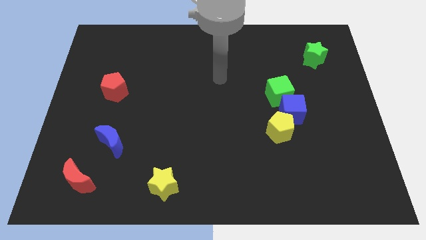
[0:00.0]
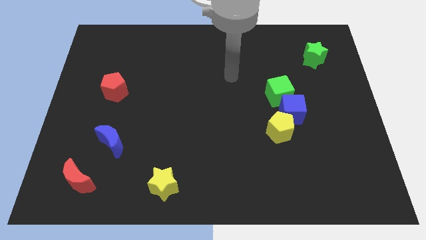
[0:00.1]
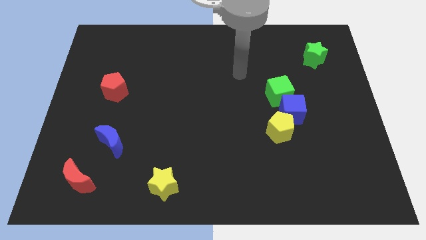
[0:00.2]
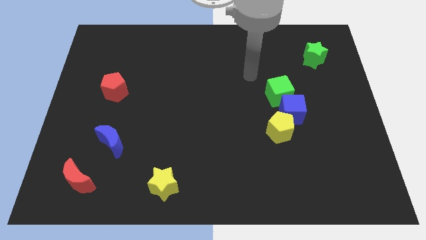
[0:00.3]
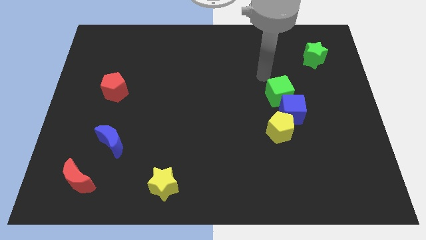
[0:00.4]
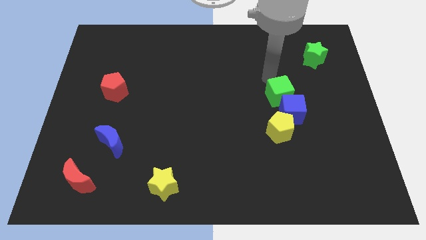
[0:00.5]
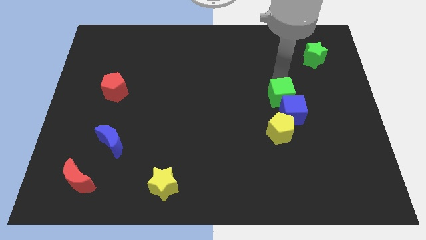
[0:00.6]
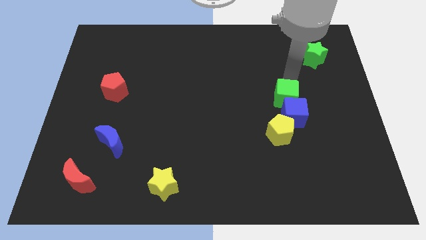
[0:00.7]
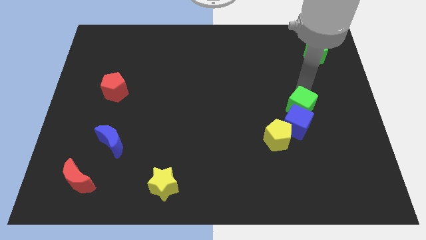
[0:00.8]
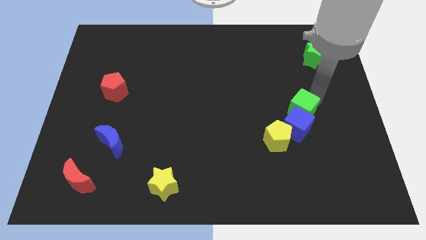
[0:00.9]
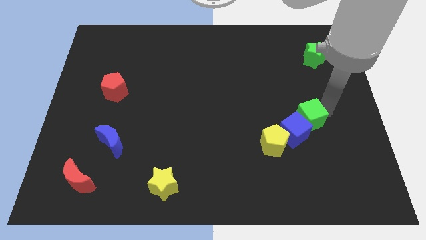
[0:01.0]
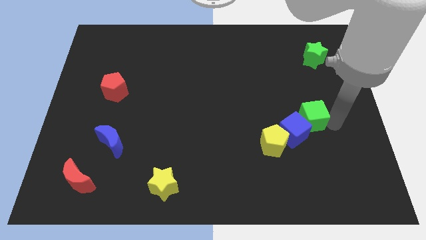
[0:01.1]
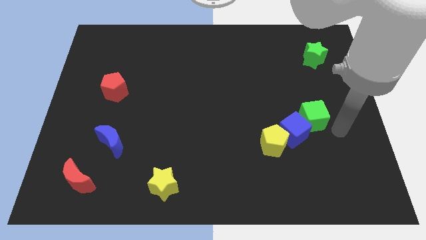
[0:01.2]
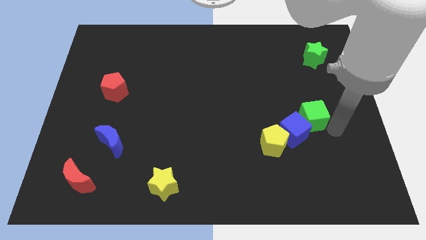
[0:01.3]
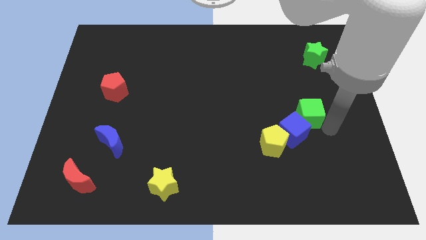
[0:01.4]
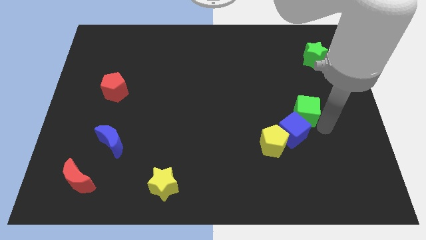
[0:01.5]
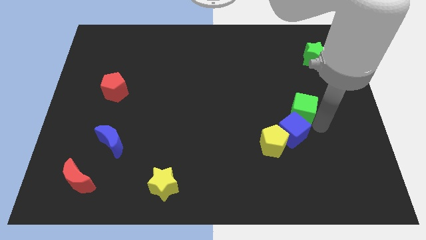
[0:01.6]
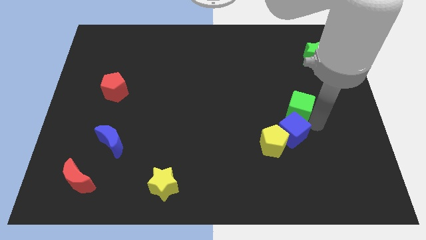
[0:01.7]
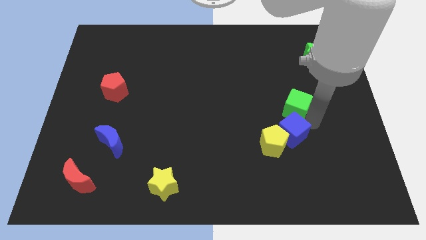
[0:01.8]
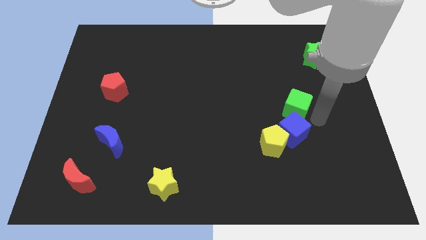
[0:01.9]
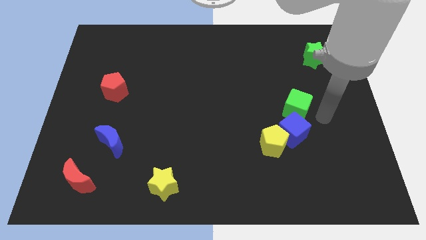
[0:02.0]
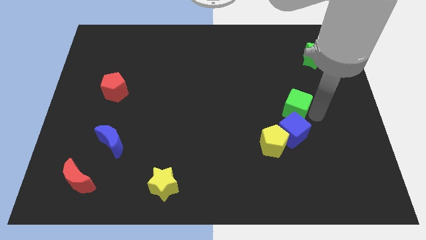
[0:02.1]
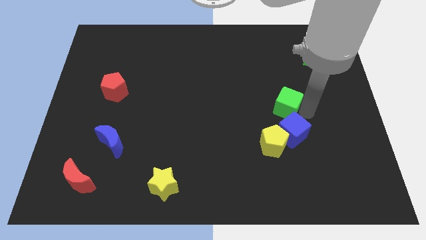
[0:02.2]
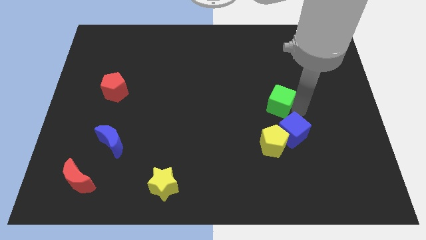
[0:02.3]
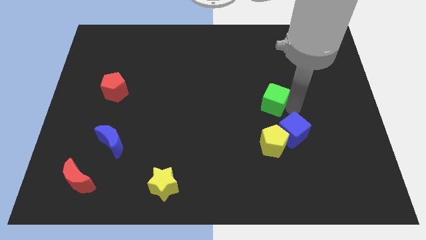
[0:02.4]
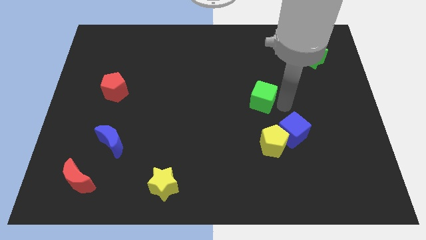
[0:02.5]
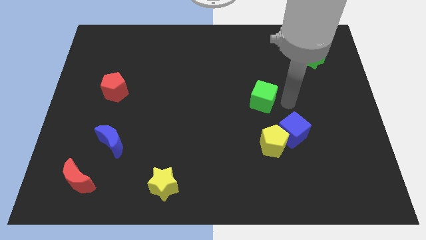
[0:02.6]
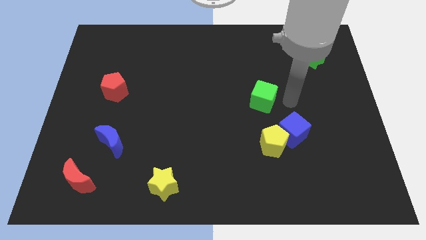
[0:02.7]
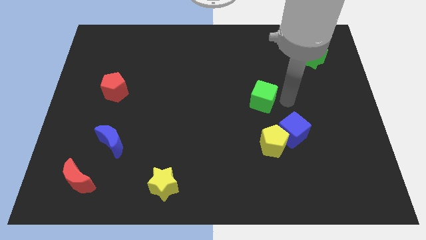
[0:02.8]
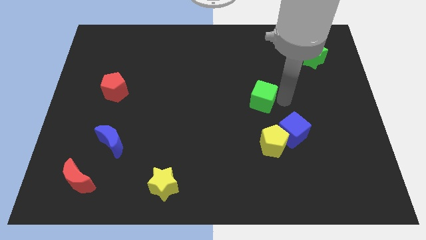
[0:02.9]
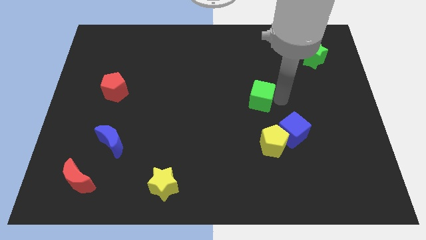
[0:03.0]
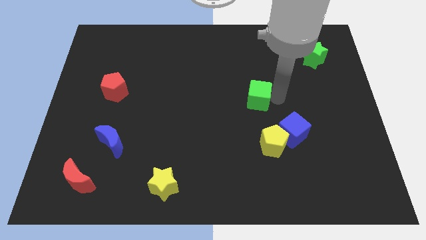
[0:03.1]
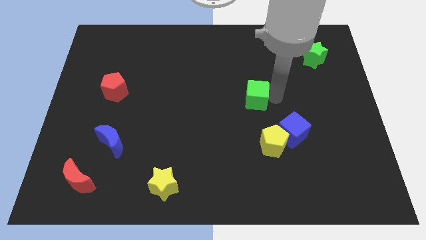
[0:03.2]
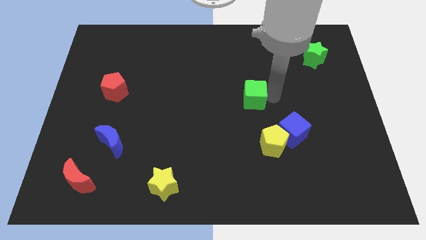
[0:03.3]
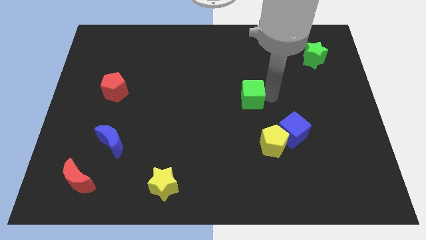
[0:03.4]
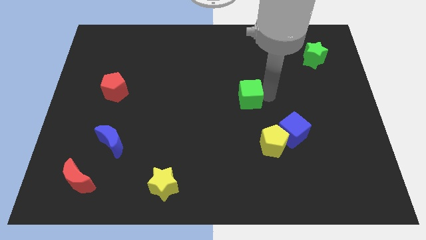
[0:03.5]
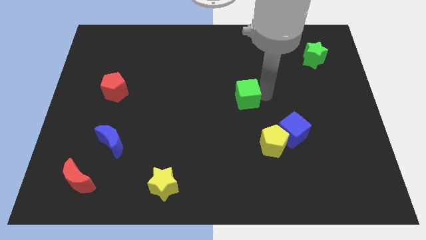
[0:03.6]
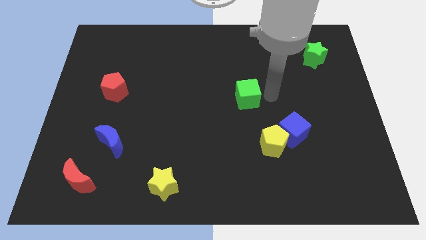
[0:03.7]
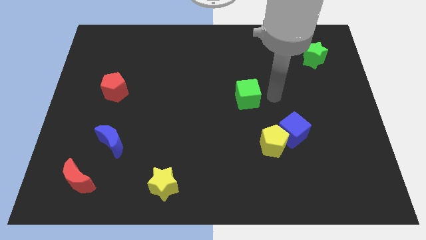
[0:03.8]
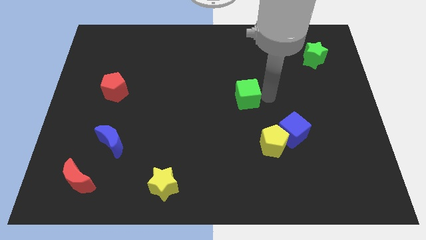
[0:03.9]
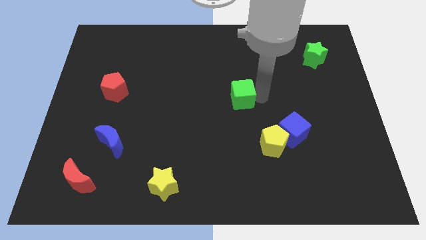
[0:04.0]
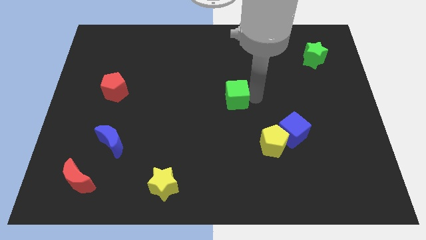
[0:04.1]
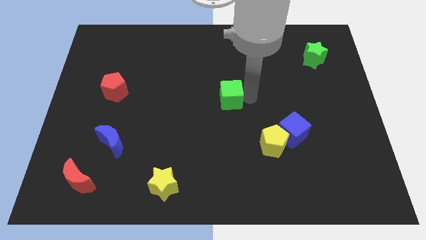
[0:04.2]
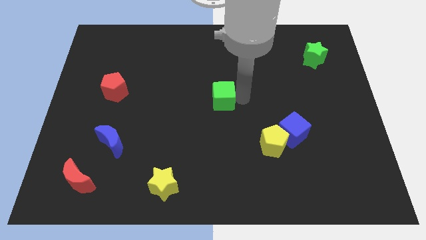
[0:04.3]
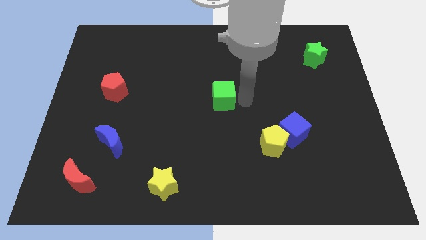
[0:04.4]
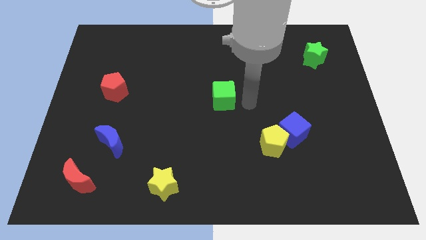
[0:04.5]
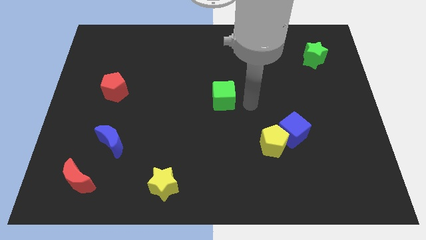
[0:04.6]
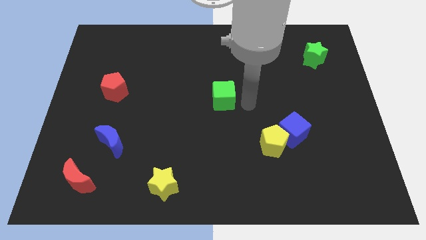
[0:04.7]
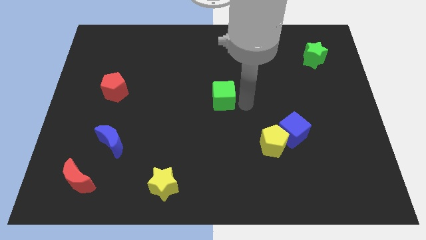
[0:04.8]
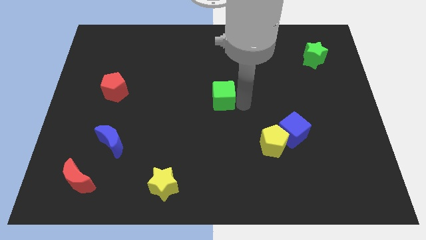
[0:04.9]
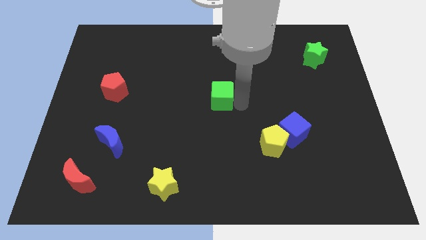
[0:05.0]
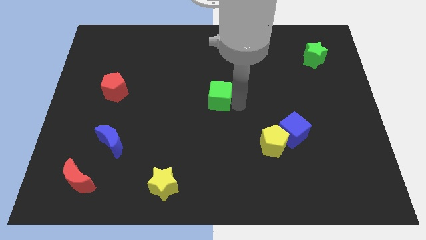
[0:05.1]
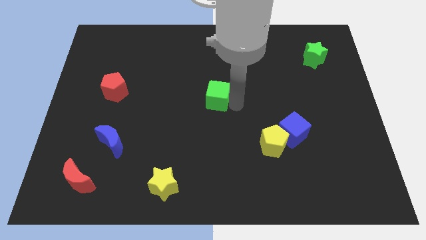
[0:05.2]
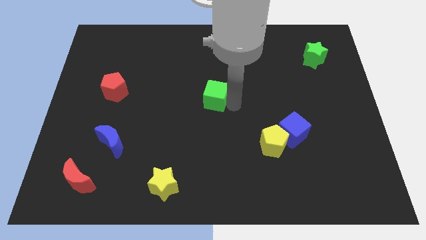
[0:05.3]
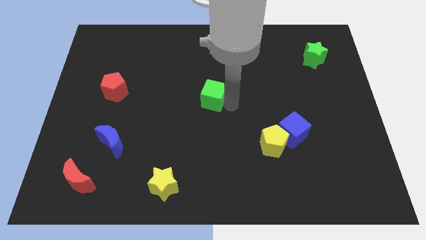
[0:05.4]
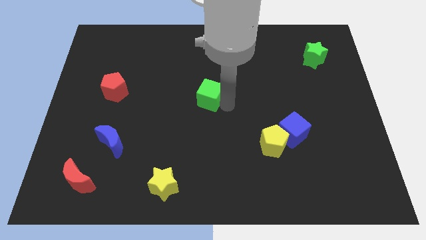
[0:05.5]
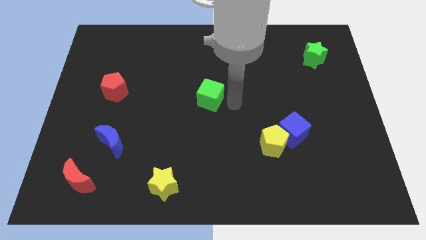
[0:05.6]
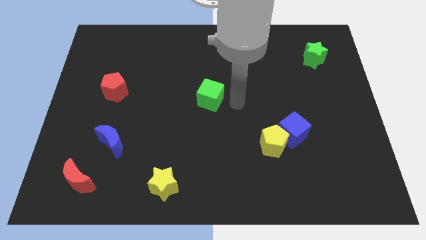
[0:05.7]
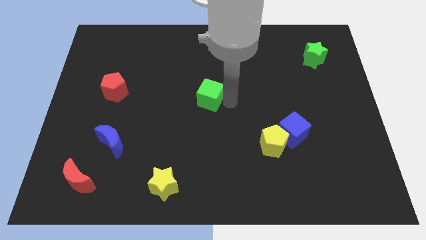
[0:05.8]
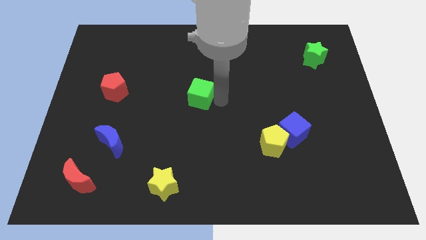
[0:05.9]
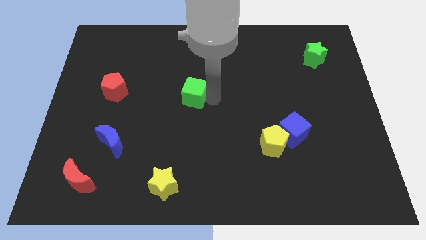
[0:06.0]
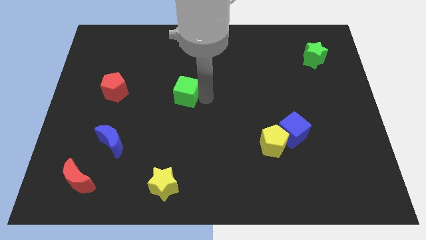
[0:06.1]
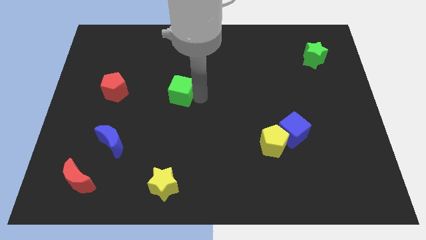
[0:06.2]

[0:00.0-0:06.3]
move the green cube just right of the red pentagon

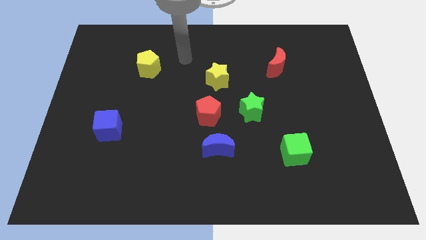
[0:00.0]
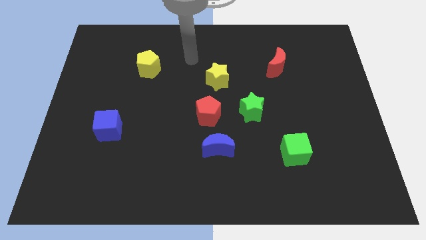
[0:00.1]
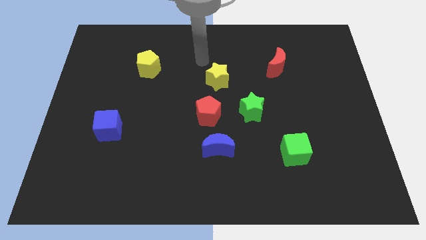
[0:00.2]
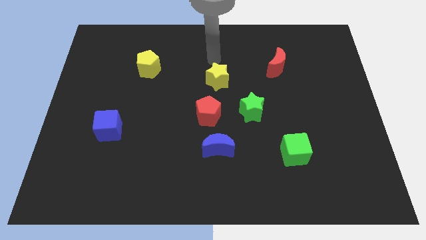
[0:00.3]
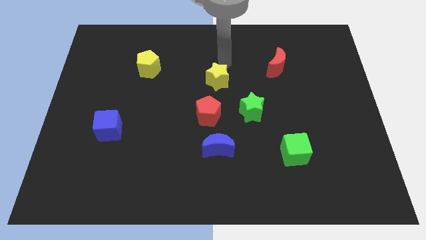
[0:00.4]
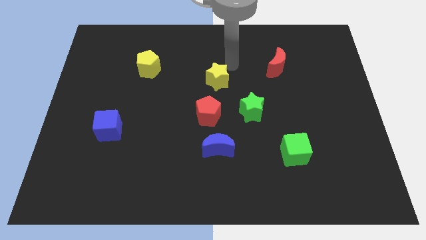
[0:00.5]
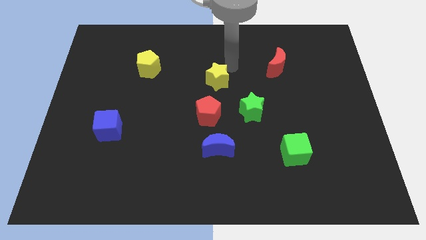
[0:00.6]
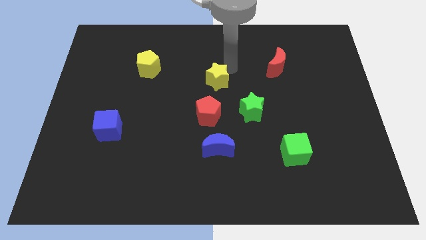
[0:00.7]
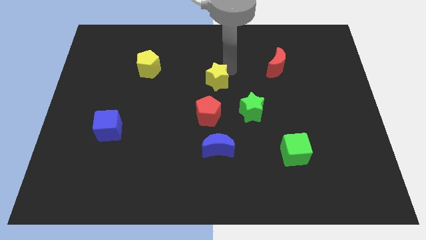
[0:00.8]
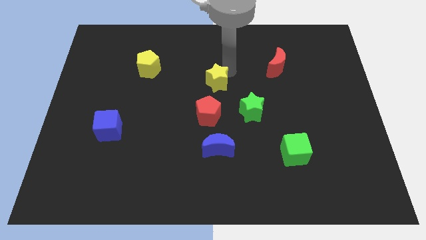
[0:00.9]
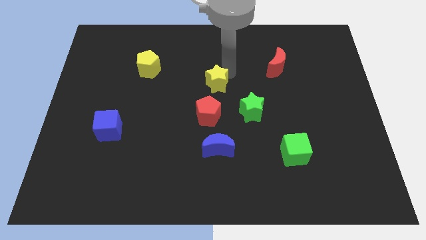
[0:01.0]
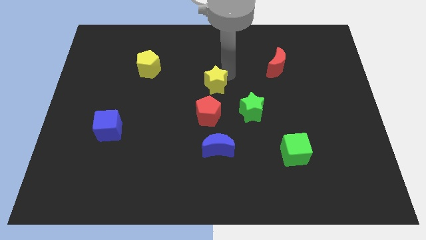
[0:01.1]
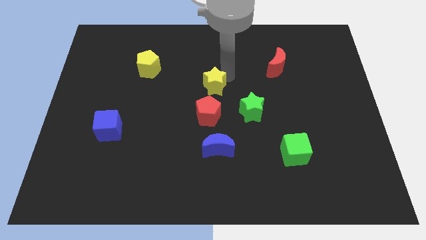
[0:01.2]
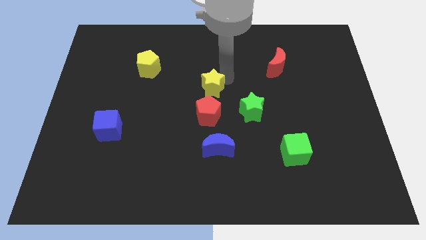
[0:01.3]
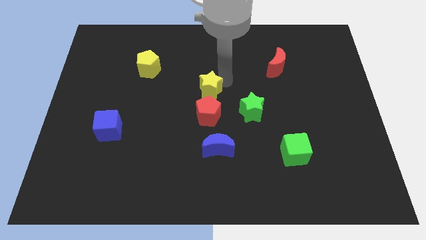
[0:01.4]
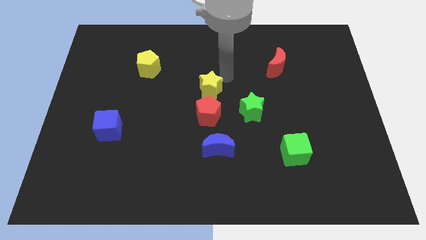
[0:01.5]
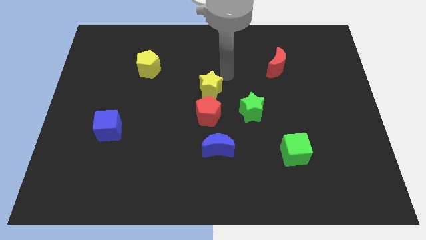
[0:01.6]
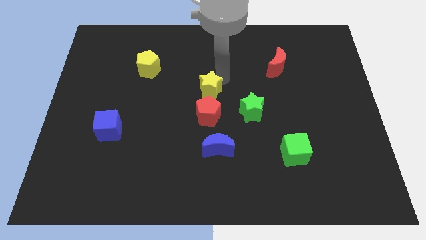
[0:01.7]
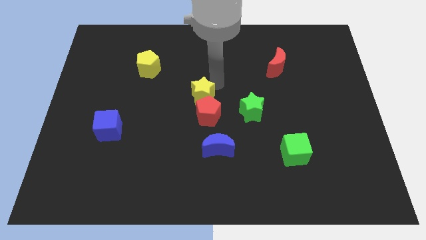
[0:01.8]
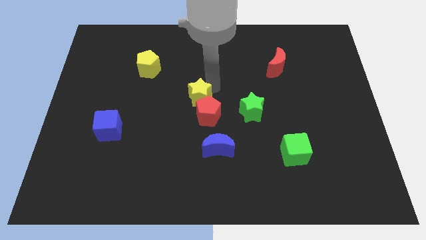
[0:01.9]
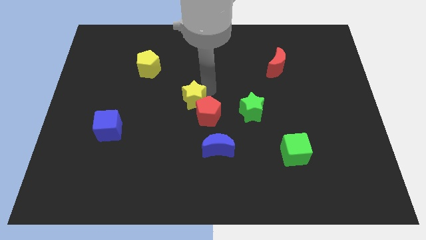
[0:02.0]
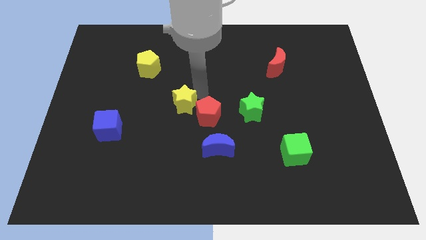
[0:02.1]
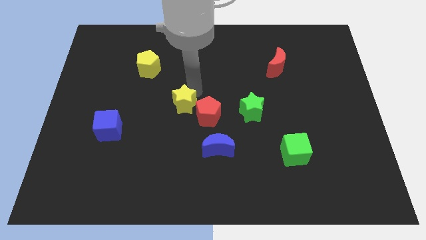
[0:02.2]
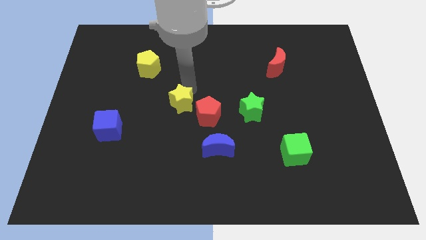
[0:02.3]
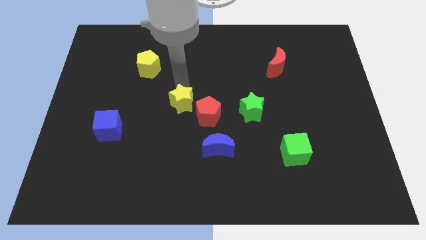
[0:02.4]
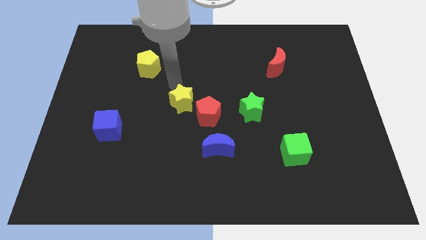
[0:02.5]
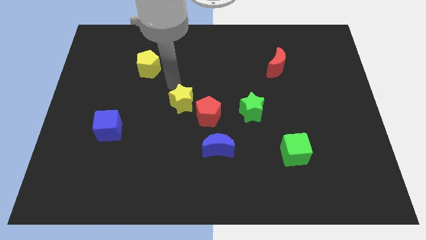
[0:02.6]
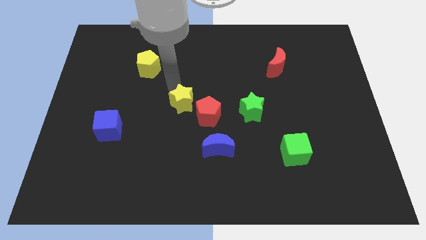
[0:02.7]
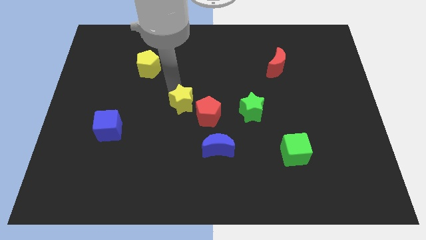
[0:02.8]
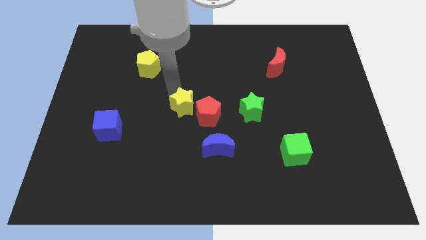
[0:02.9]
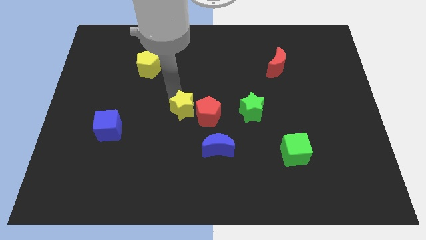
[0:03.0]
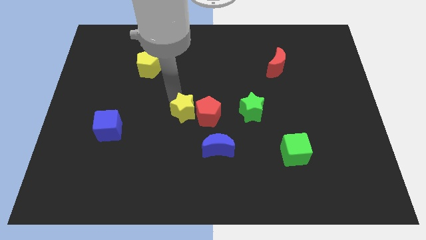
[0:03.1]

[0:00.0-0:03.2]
push the yellow star diagonally up and to the left of the blue moon
